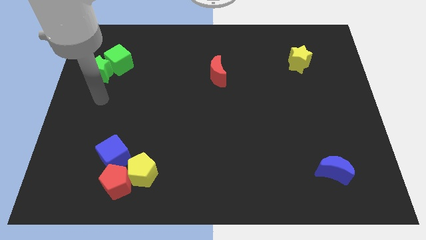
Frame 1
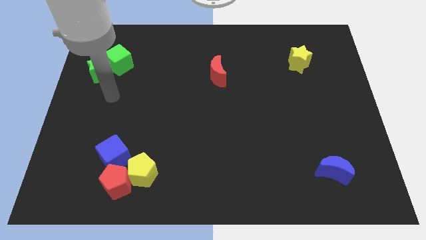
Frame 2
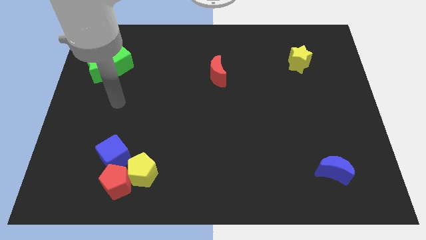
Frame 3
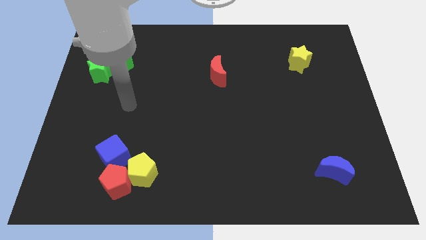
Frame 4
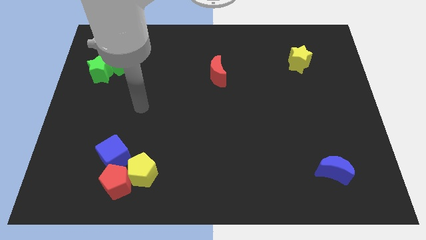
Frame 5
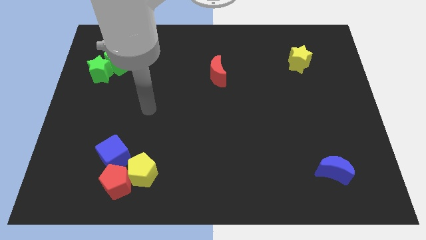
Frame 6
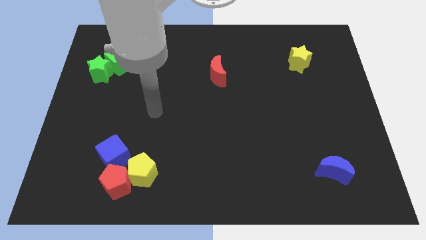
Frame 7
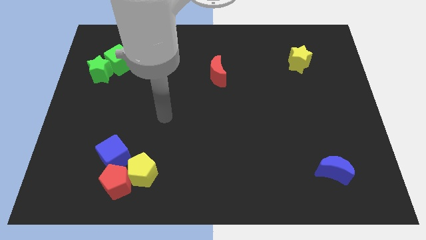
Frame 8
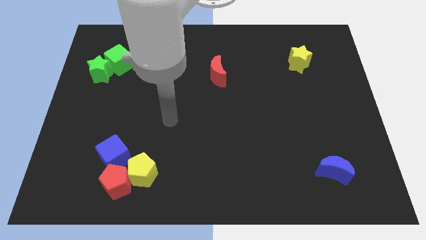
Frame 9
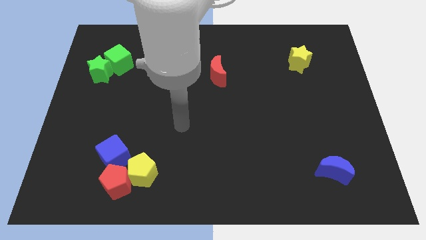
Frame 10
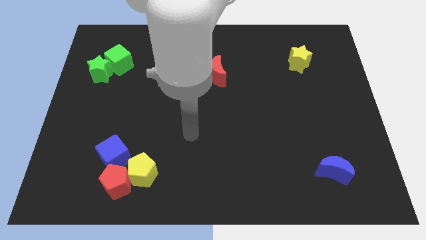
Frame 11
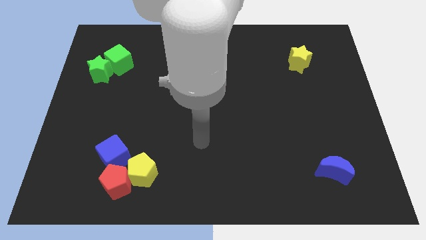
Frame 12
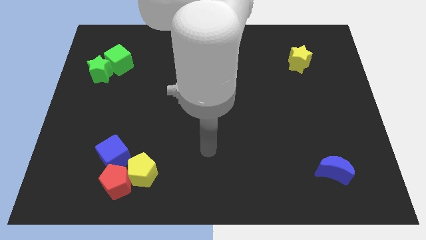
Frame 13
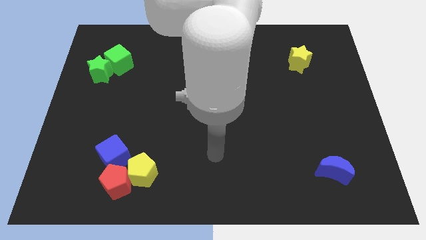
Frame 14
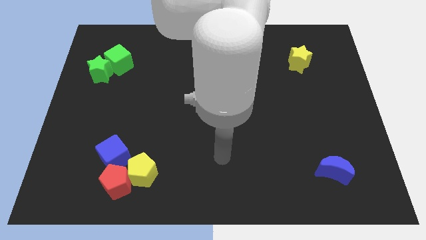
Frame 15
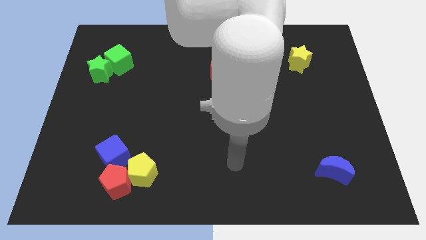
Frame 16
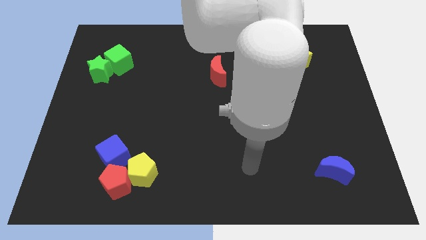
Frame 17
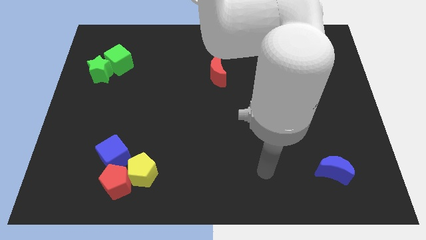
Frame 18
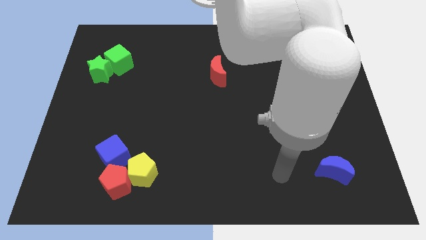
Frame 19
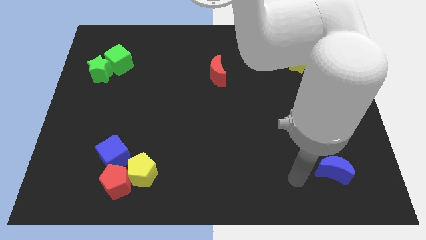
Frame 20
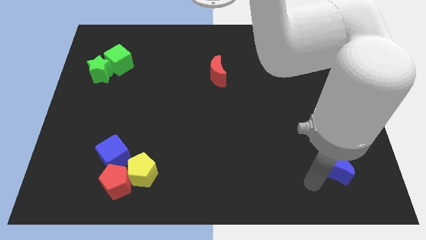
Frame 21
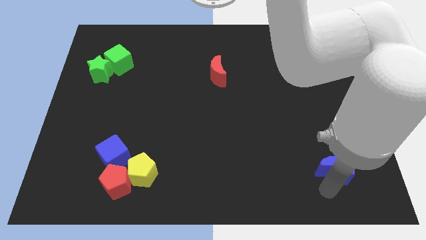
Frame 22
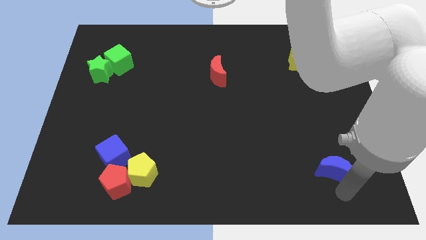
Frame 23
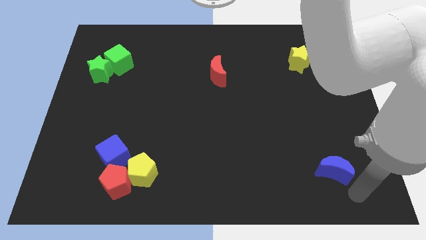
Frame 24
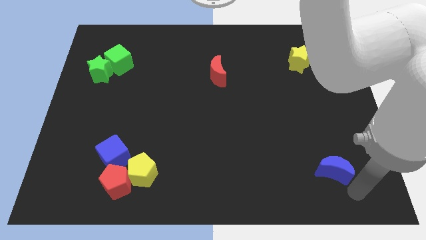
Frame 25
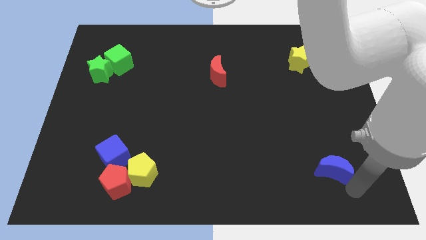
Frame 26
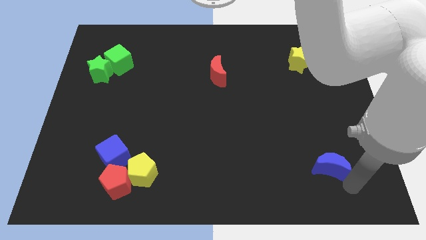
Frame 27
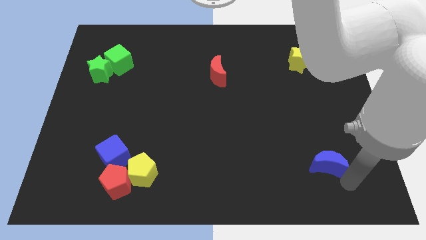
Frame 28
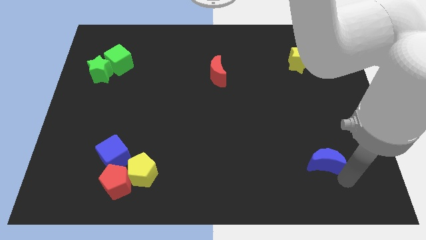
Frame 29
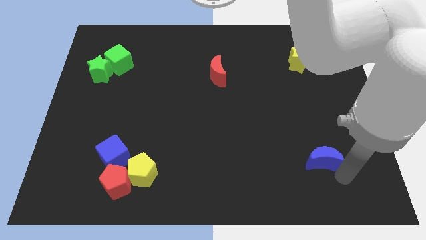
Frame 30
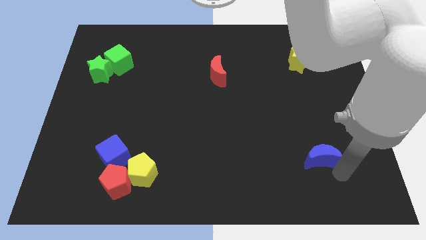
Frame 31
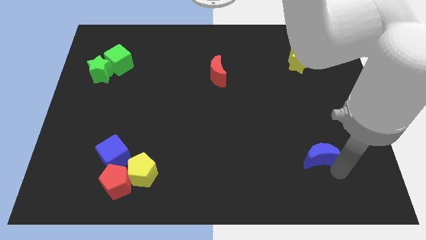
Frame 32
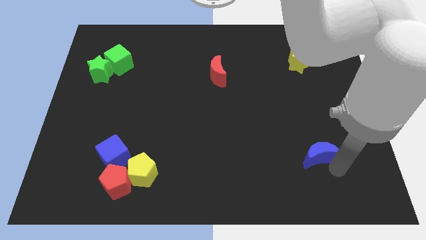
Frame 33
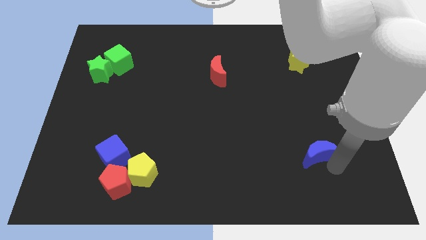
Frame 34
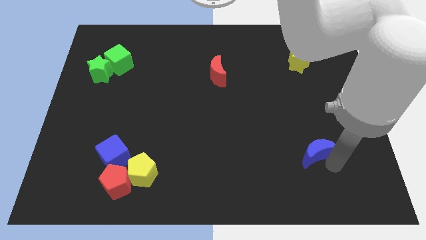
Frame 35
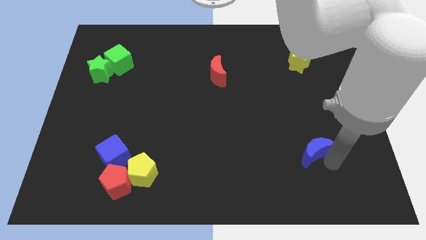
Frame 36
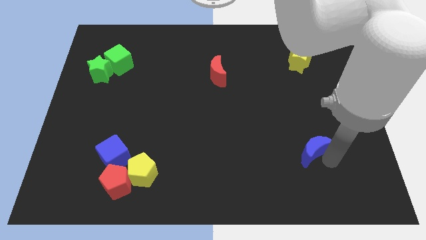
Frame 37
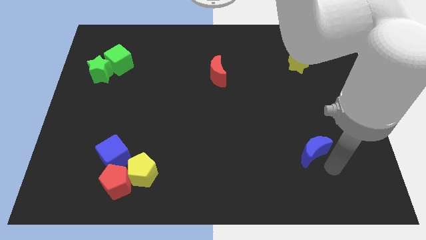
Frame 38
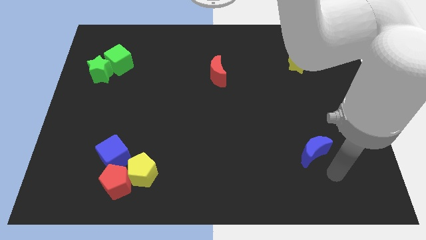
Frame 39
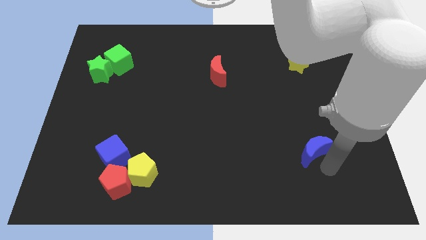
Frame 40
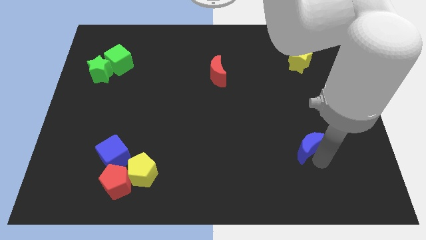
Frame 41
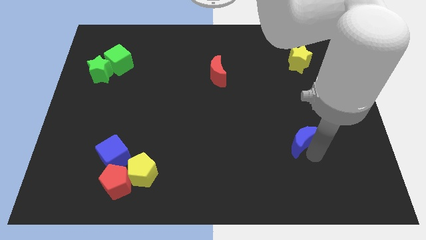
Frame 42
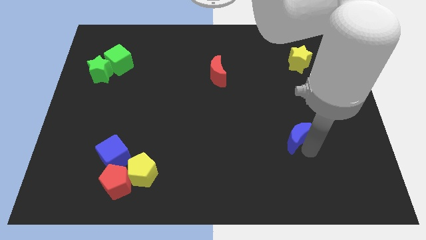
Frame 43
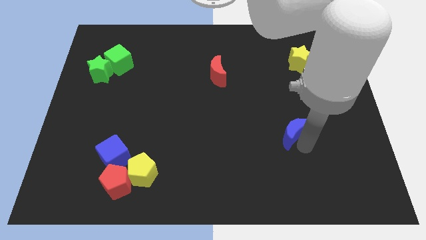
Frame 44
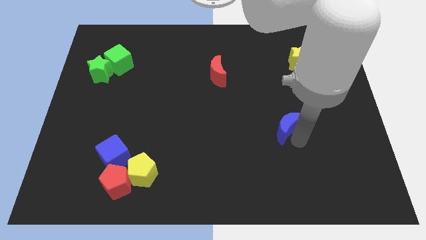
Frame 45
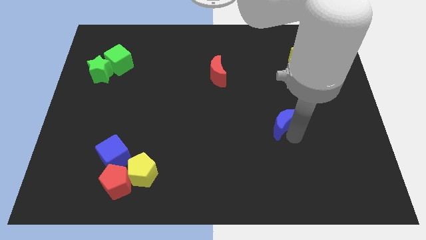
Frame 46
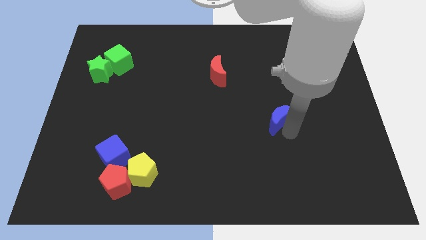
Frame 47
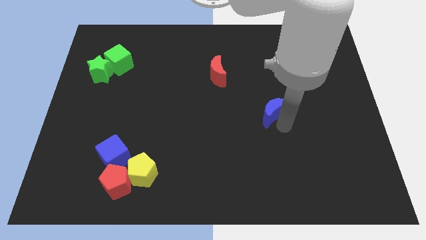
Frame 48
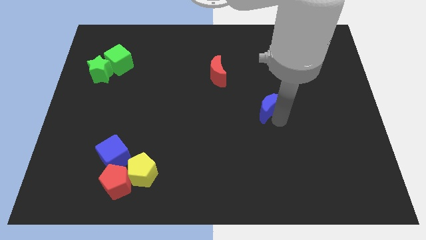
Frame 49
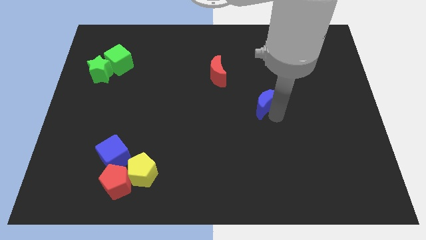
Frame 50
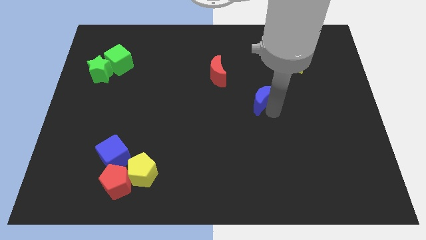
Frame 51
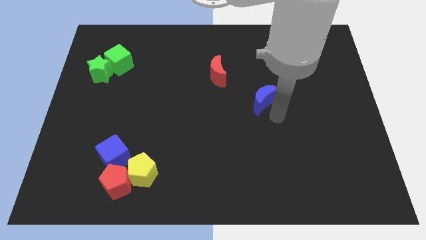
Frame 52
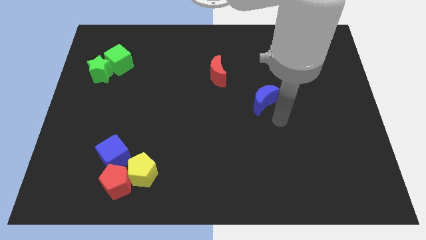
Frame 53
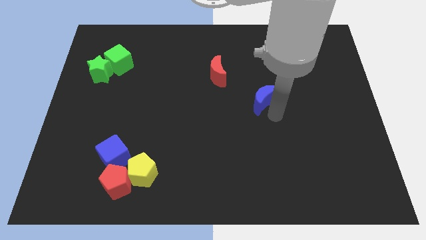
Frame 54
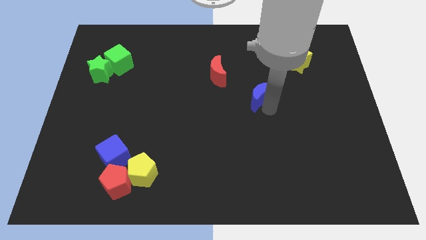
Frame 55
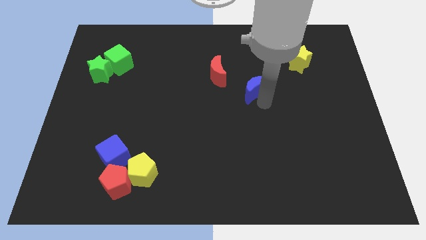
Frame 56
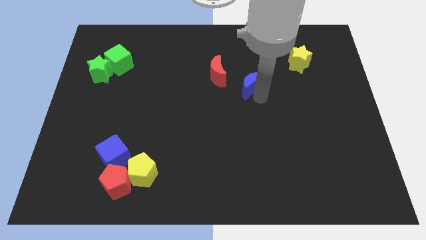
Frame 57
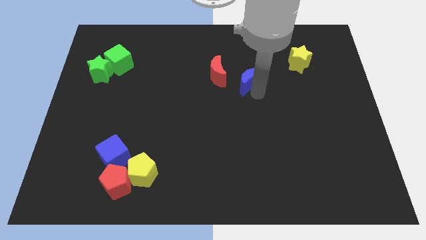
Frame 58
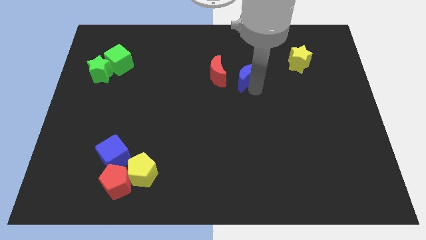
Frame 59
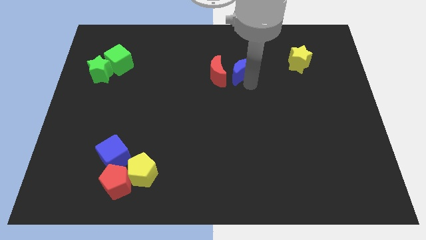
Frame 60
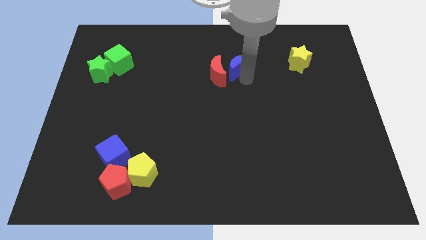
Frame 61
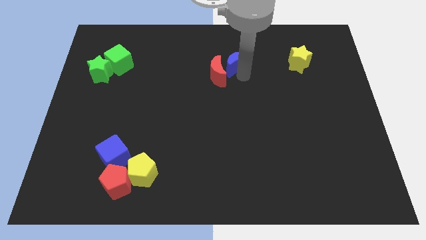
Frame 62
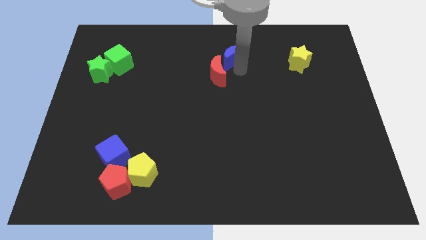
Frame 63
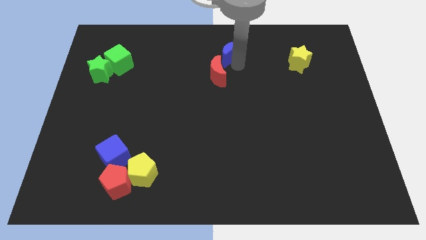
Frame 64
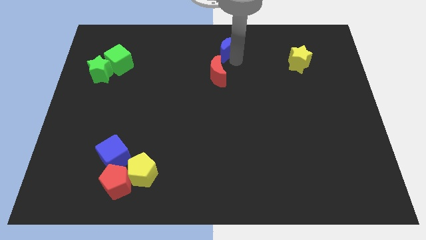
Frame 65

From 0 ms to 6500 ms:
move the blue moon to the top side
